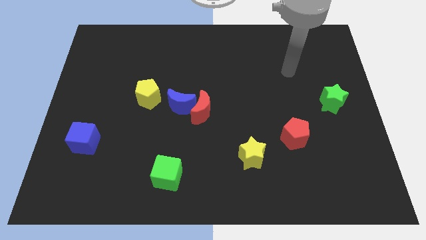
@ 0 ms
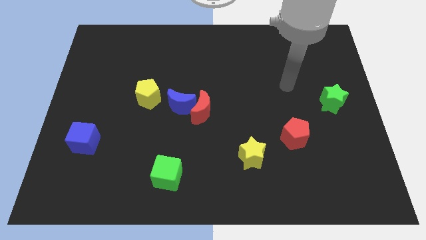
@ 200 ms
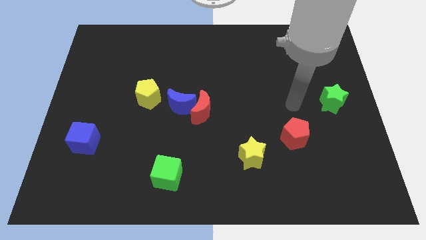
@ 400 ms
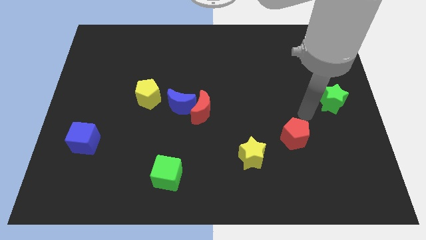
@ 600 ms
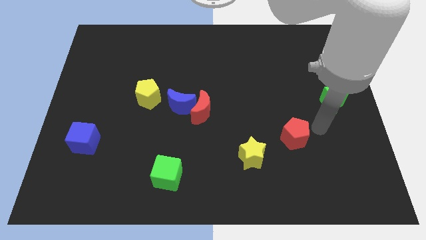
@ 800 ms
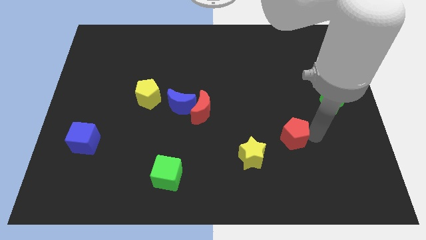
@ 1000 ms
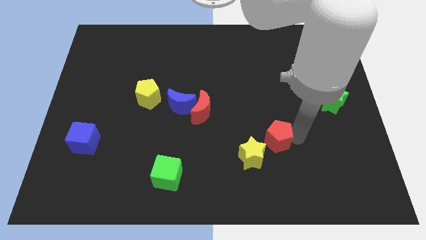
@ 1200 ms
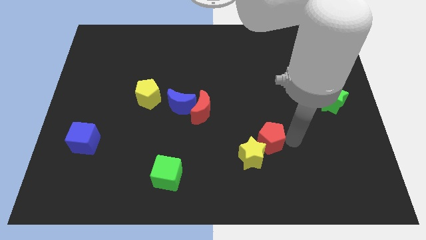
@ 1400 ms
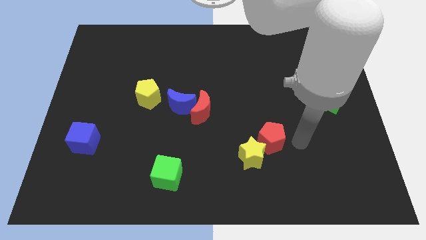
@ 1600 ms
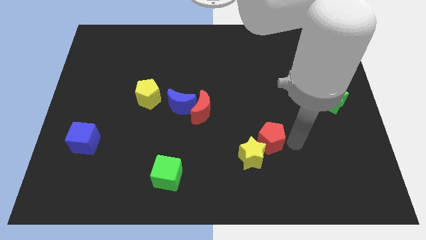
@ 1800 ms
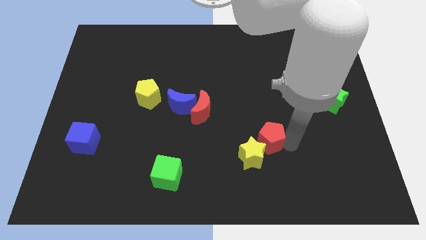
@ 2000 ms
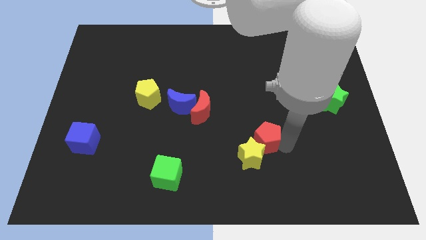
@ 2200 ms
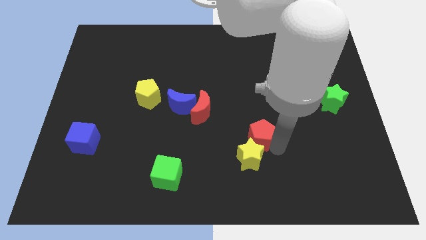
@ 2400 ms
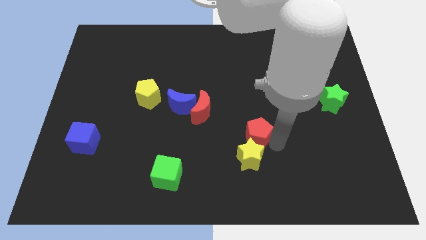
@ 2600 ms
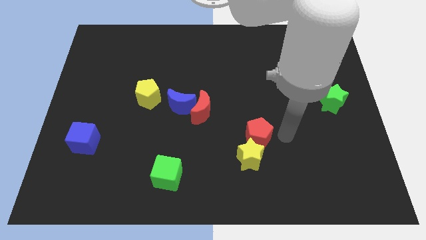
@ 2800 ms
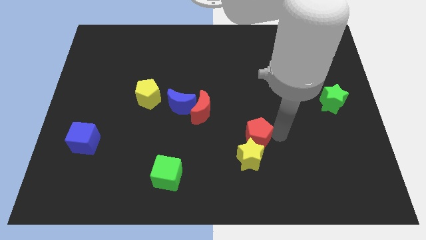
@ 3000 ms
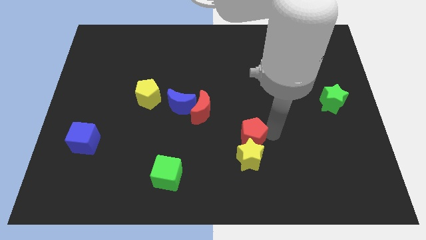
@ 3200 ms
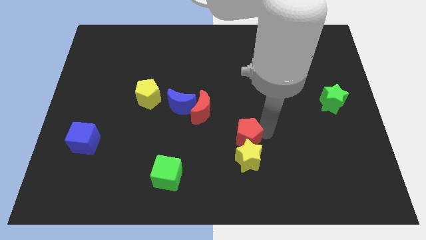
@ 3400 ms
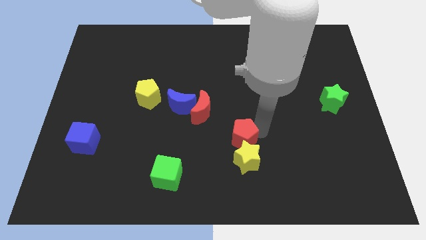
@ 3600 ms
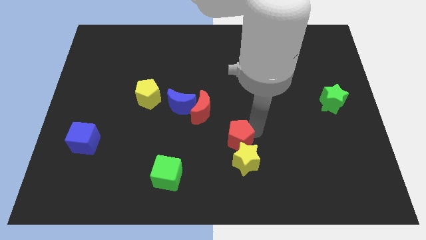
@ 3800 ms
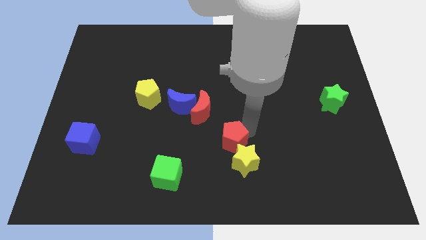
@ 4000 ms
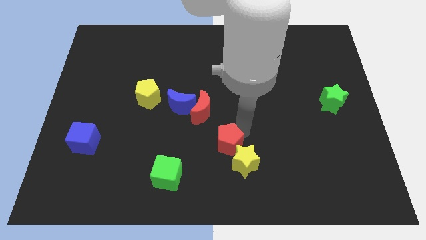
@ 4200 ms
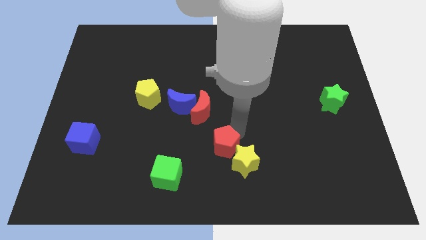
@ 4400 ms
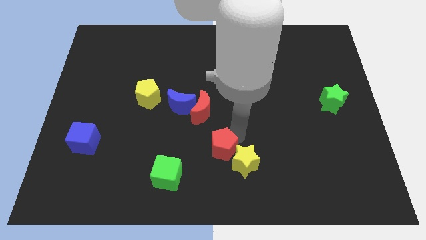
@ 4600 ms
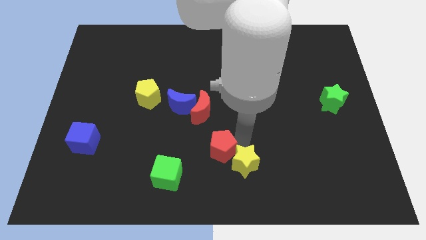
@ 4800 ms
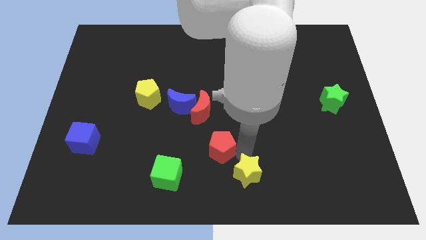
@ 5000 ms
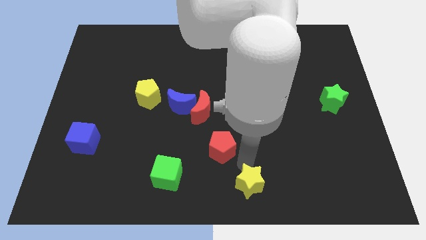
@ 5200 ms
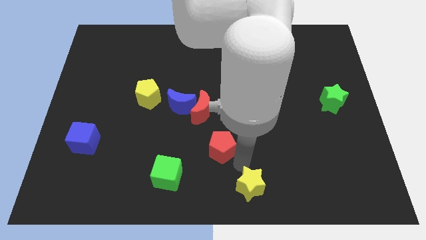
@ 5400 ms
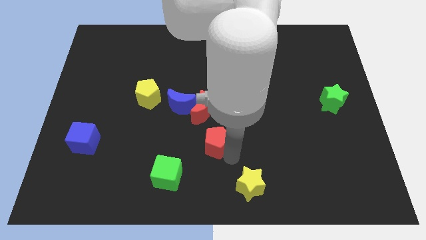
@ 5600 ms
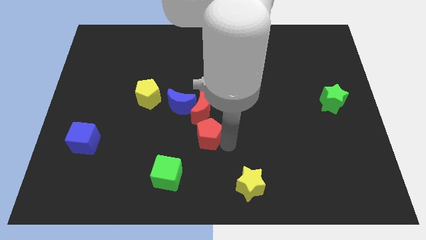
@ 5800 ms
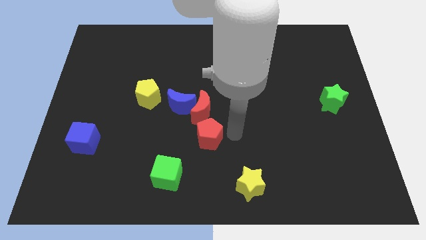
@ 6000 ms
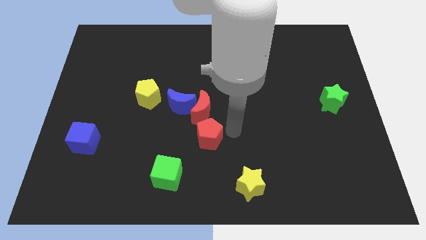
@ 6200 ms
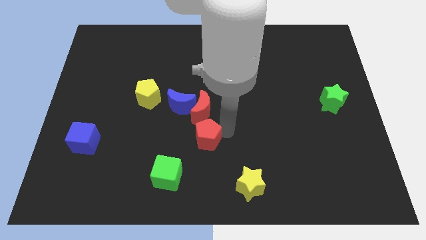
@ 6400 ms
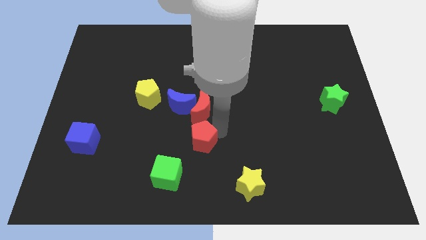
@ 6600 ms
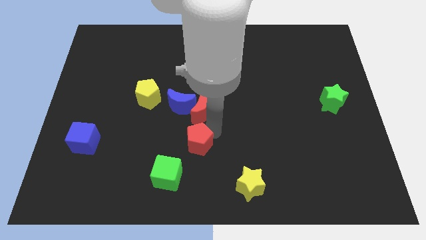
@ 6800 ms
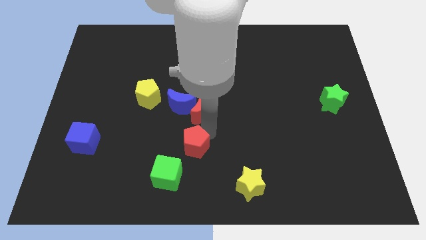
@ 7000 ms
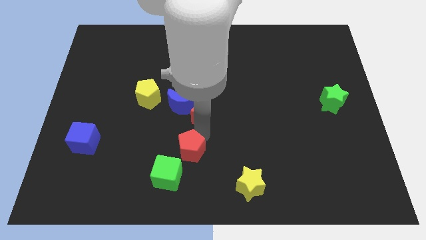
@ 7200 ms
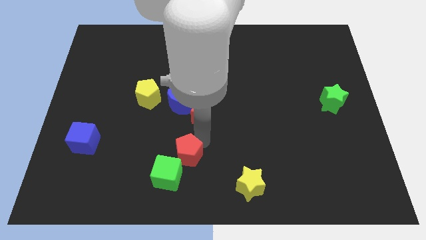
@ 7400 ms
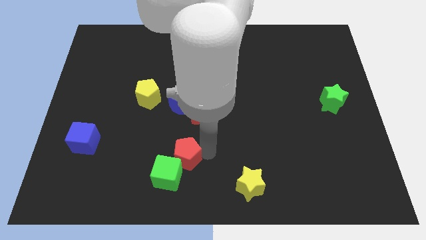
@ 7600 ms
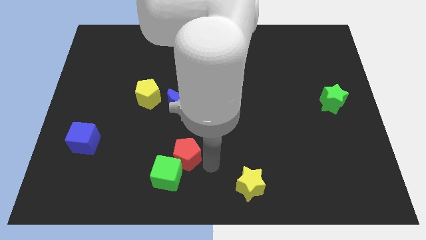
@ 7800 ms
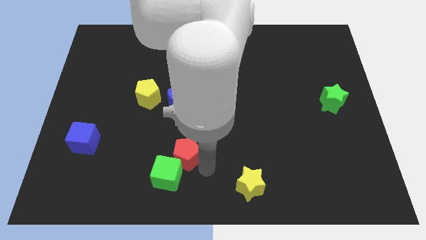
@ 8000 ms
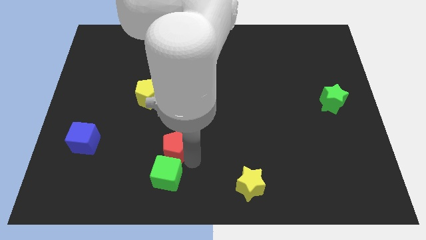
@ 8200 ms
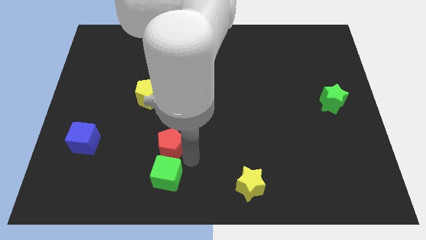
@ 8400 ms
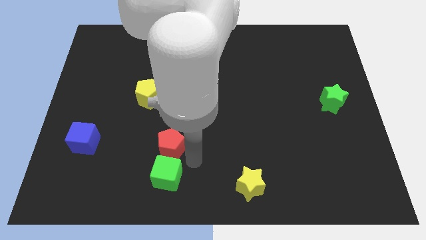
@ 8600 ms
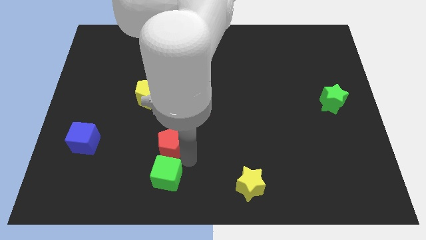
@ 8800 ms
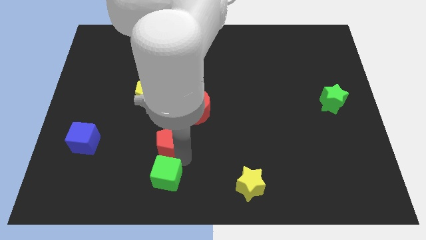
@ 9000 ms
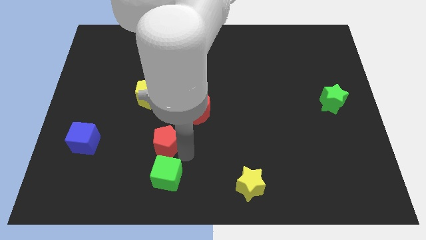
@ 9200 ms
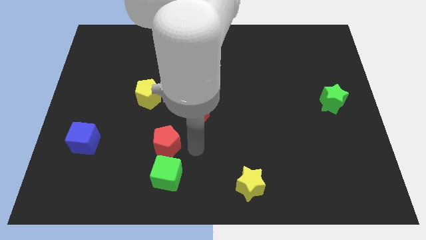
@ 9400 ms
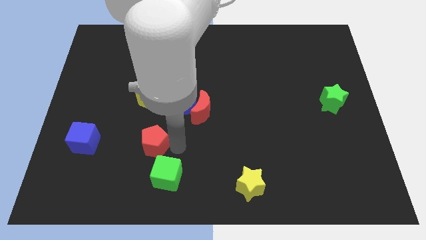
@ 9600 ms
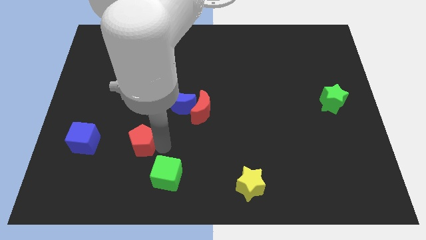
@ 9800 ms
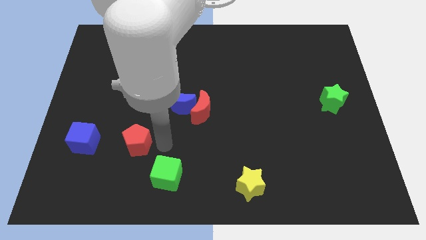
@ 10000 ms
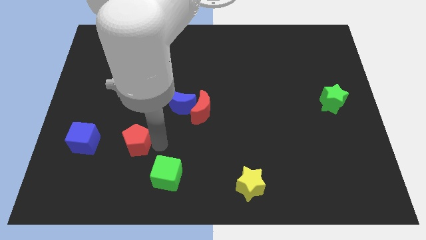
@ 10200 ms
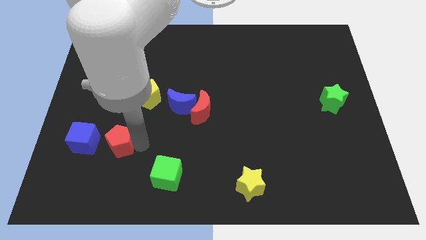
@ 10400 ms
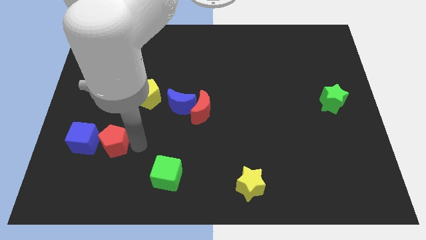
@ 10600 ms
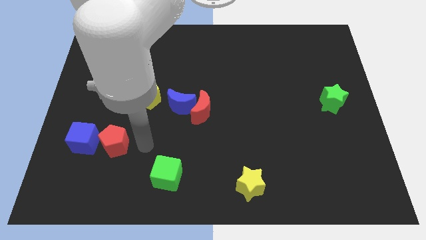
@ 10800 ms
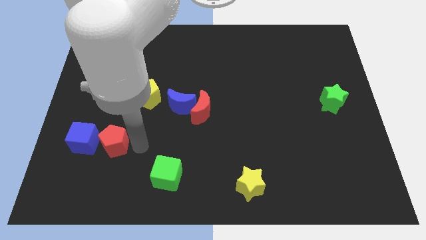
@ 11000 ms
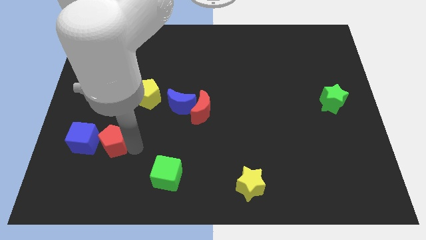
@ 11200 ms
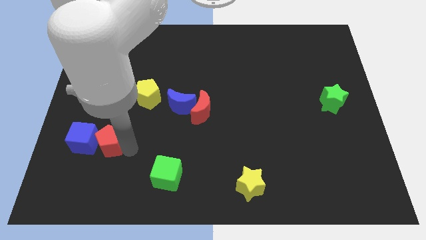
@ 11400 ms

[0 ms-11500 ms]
push the red pentagon towards the blue cube

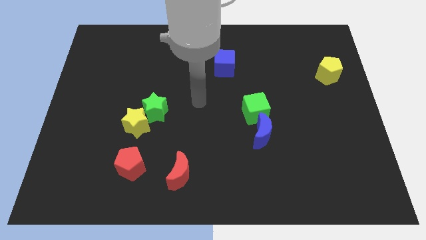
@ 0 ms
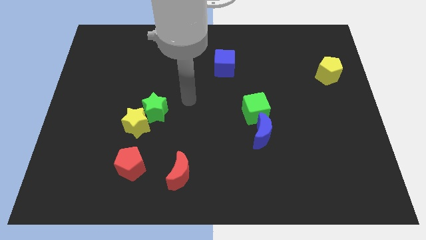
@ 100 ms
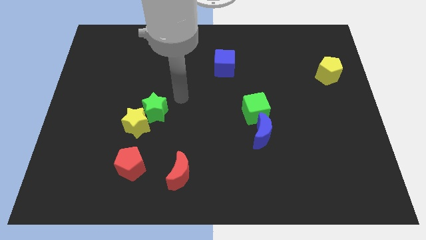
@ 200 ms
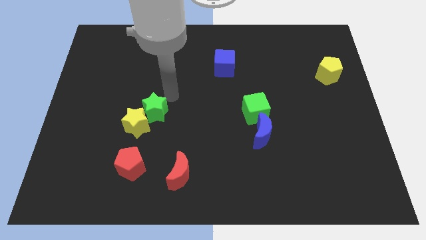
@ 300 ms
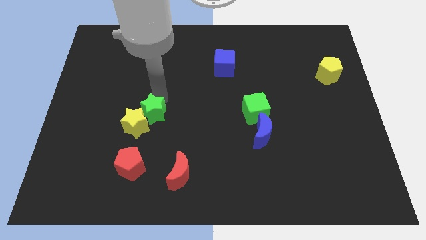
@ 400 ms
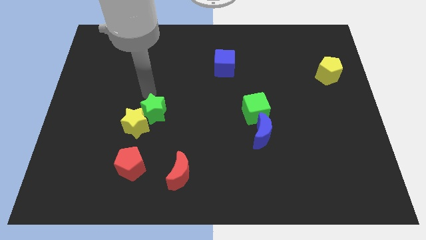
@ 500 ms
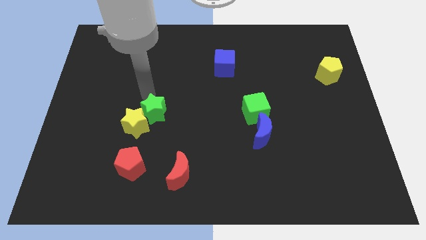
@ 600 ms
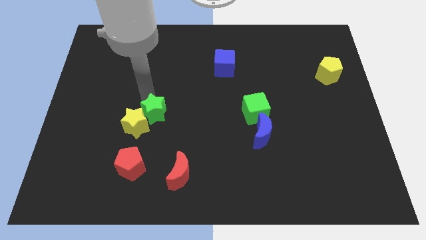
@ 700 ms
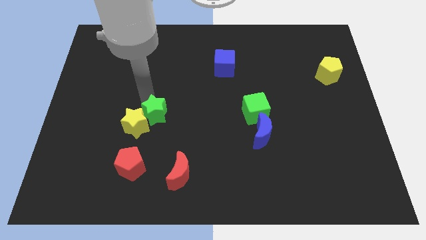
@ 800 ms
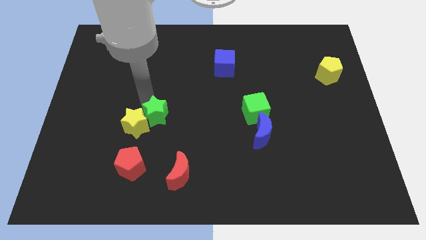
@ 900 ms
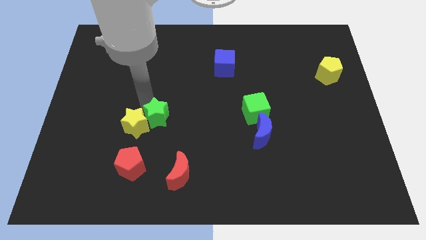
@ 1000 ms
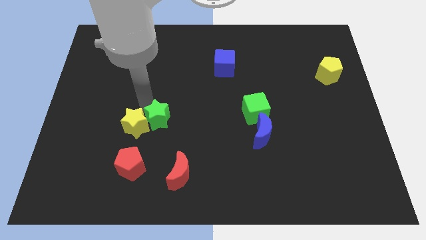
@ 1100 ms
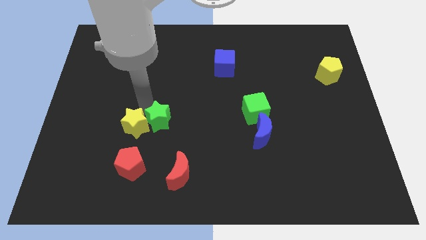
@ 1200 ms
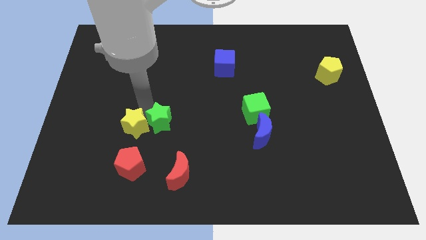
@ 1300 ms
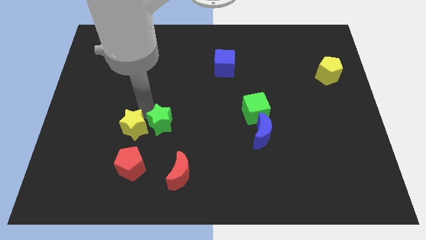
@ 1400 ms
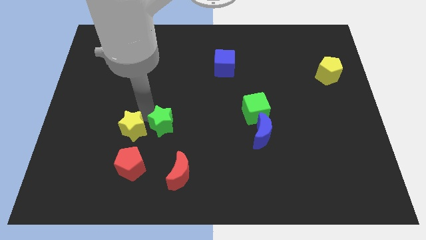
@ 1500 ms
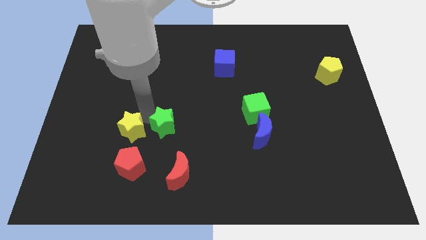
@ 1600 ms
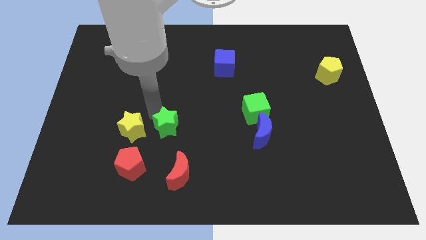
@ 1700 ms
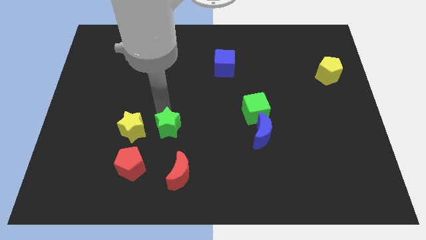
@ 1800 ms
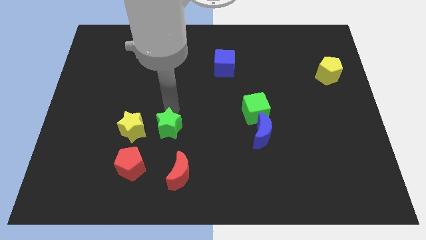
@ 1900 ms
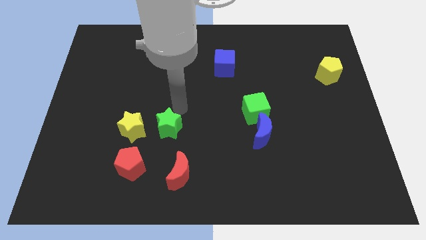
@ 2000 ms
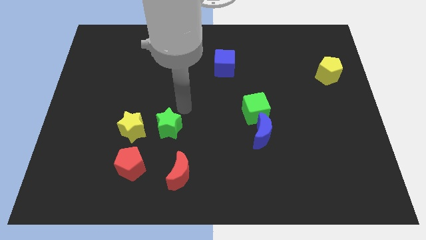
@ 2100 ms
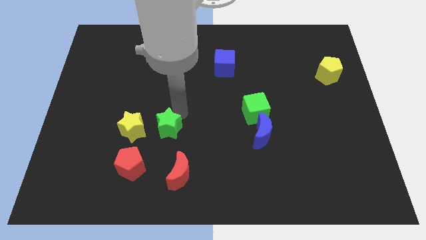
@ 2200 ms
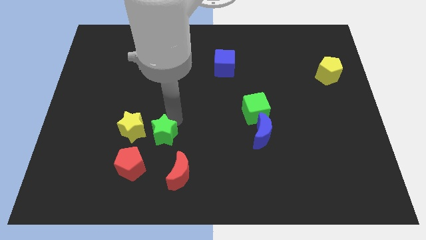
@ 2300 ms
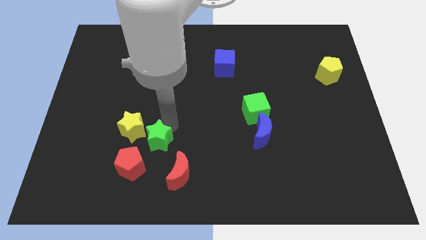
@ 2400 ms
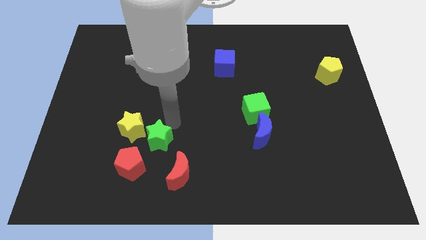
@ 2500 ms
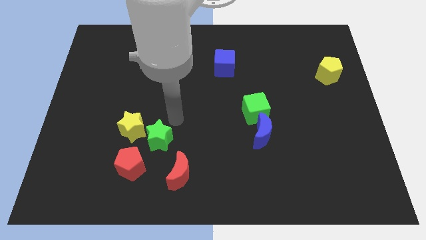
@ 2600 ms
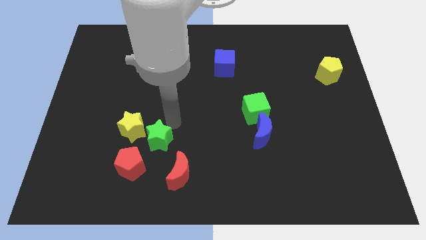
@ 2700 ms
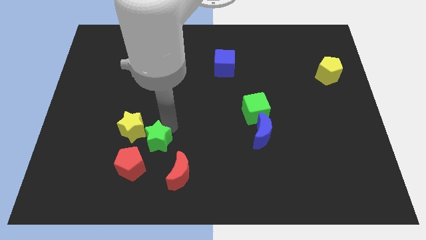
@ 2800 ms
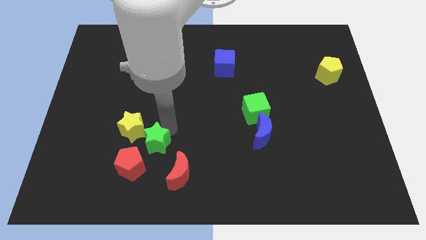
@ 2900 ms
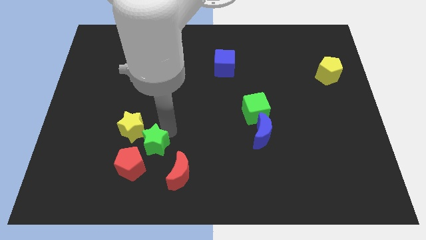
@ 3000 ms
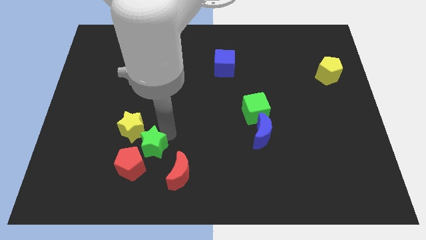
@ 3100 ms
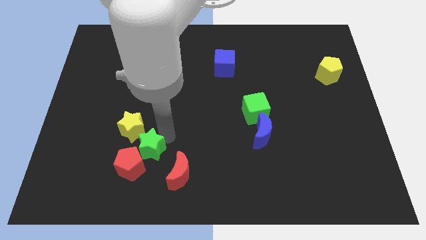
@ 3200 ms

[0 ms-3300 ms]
put the green star to the red pentagon
